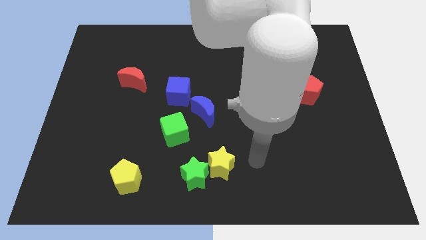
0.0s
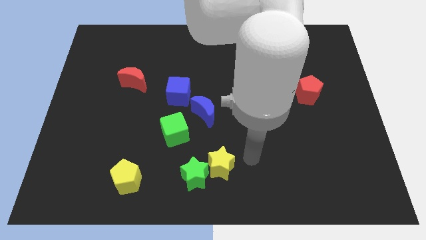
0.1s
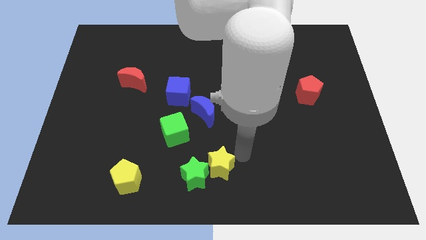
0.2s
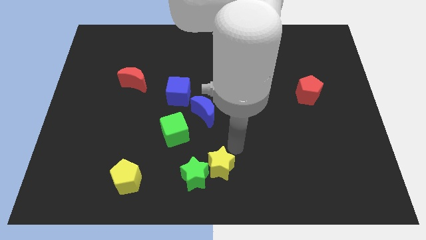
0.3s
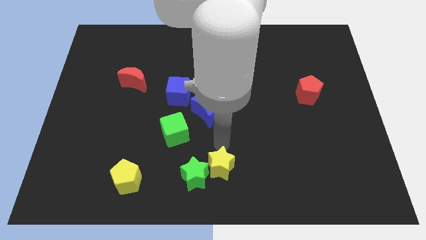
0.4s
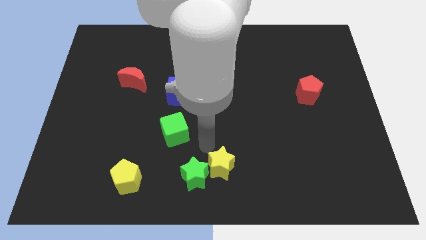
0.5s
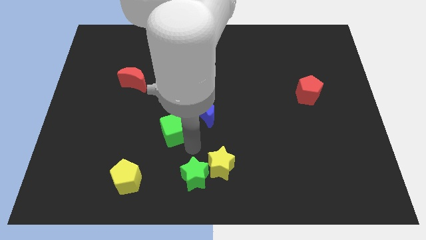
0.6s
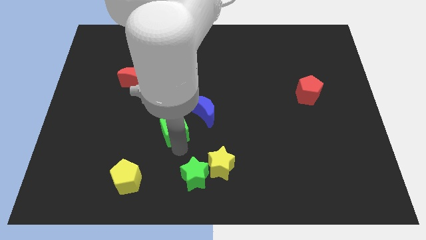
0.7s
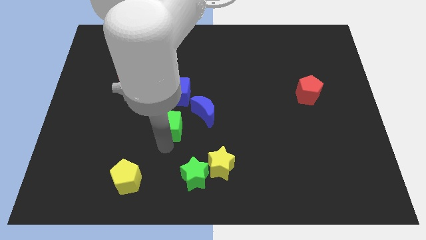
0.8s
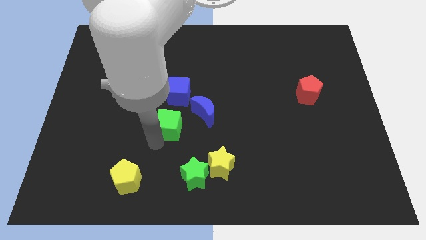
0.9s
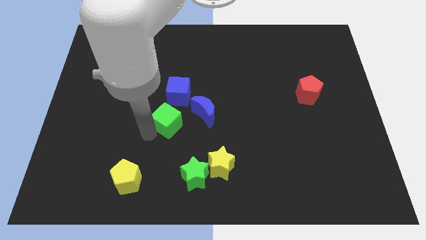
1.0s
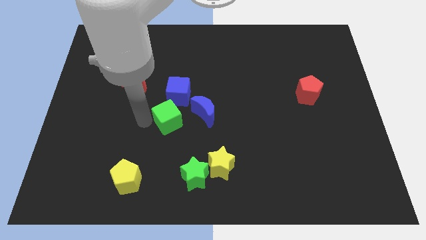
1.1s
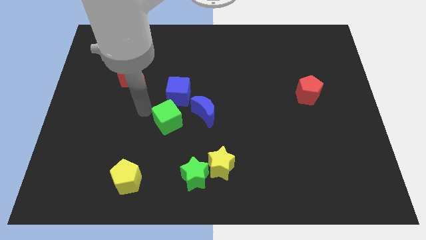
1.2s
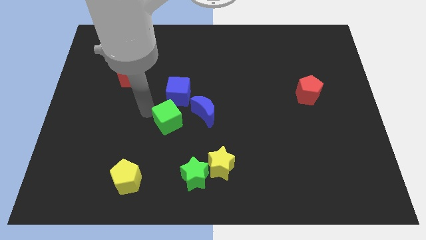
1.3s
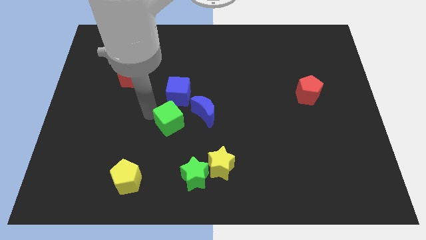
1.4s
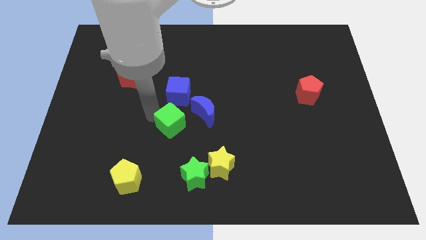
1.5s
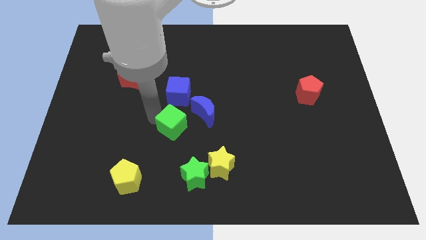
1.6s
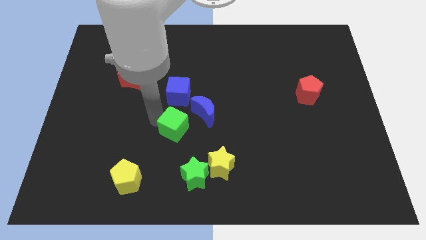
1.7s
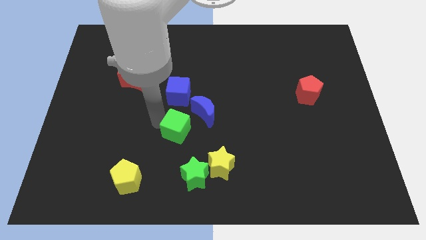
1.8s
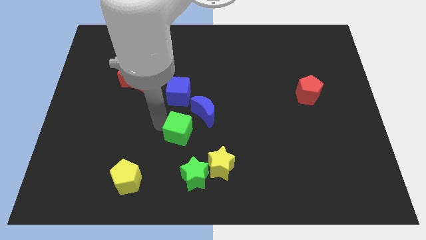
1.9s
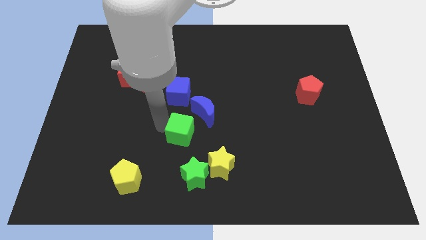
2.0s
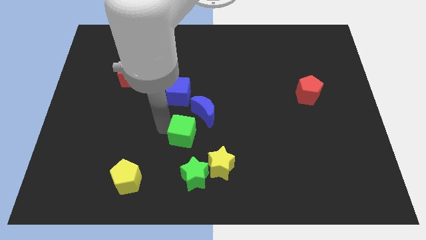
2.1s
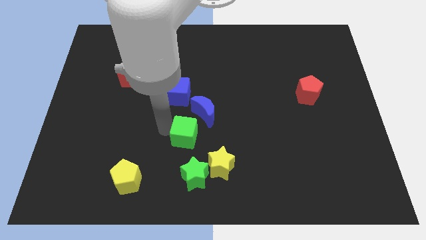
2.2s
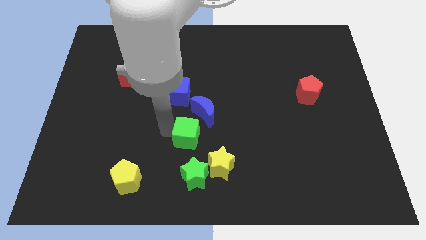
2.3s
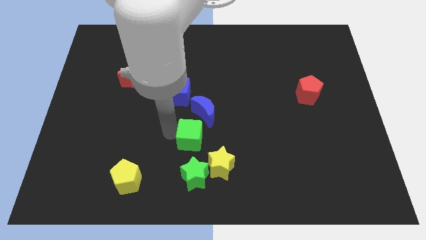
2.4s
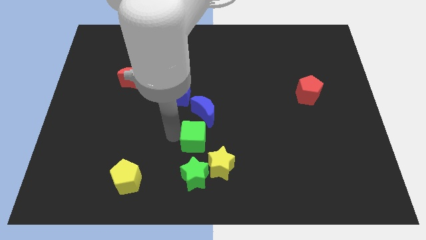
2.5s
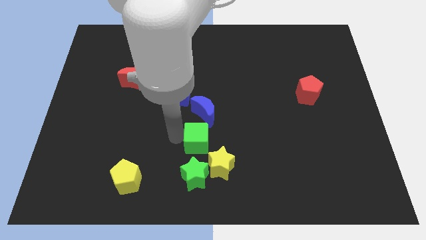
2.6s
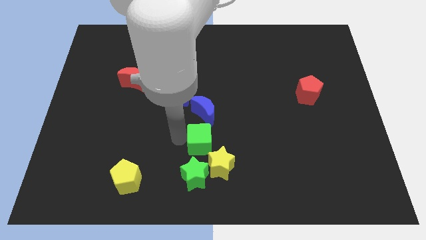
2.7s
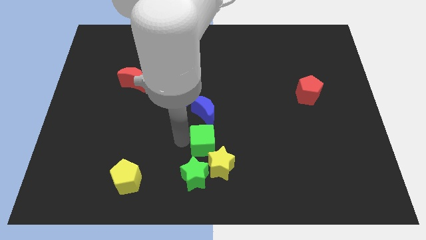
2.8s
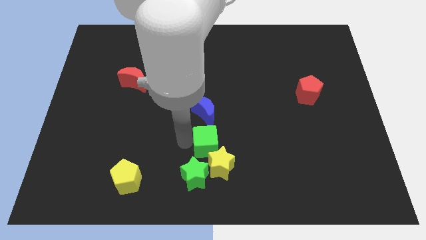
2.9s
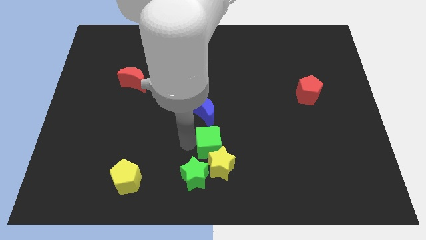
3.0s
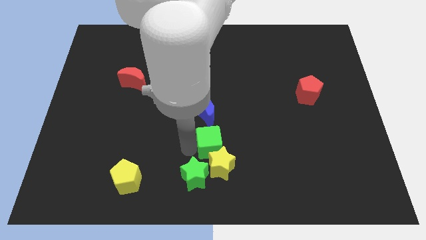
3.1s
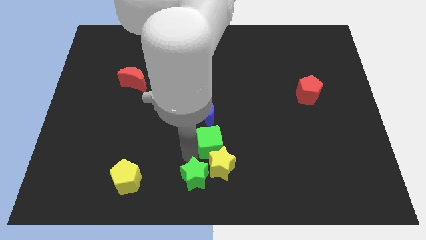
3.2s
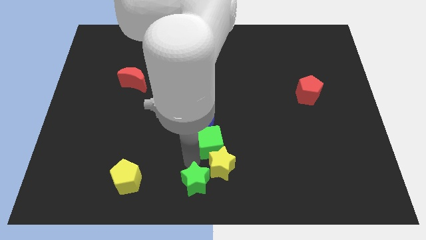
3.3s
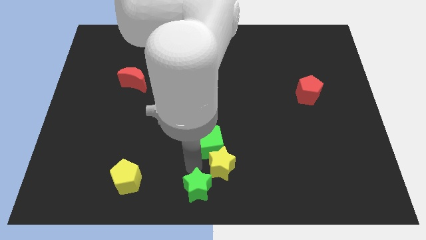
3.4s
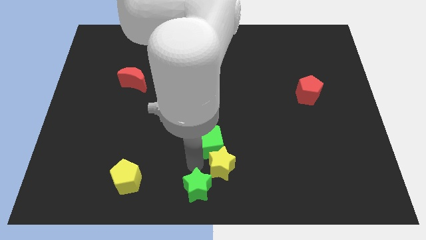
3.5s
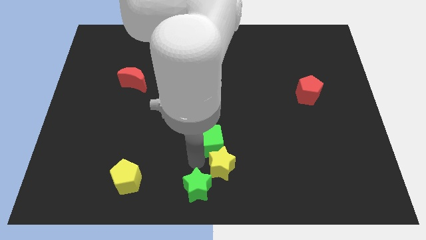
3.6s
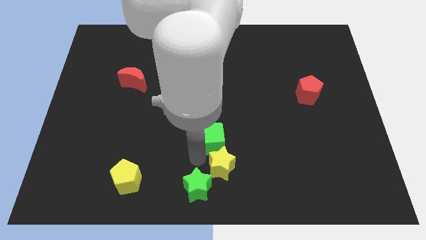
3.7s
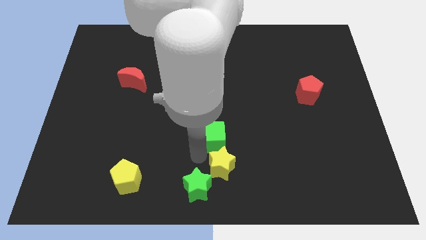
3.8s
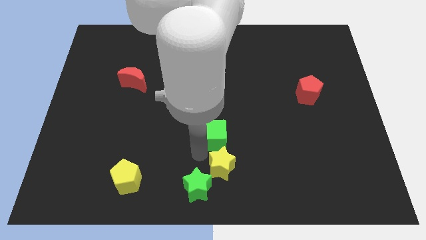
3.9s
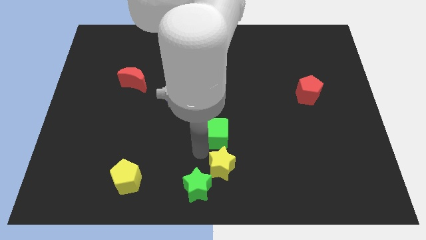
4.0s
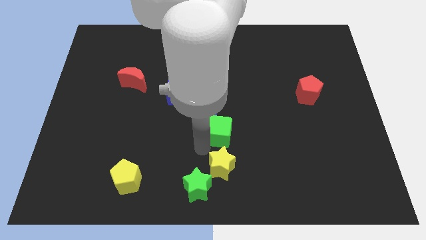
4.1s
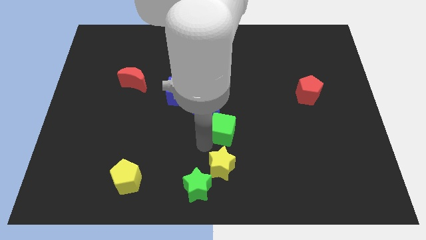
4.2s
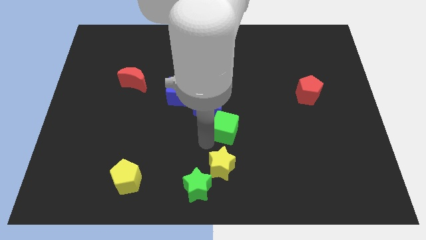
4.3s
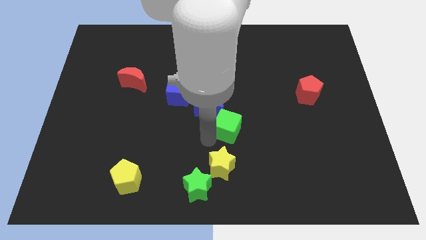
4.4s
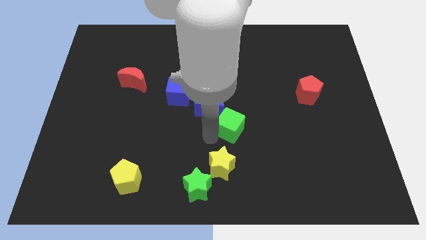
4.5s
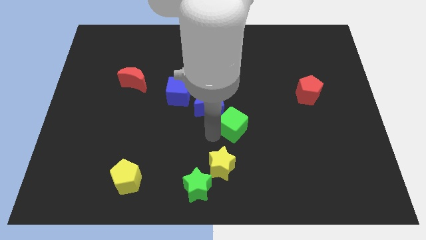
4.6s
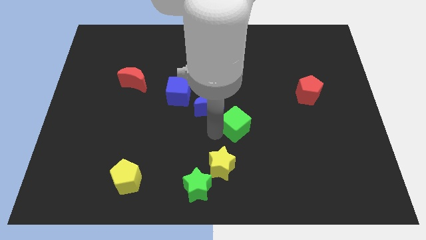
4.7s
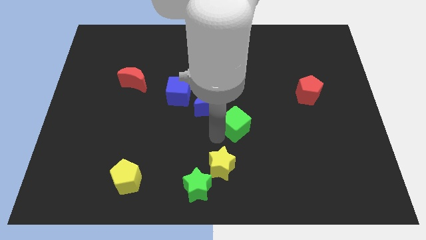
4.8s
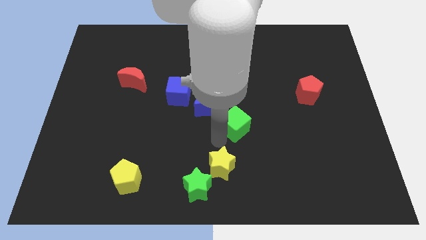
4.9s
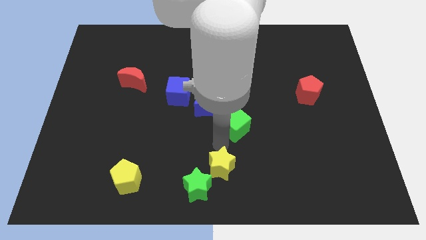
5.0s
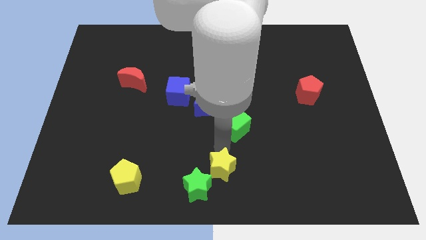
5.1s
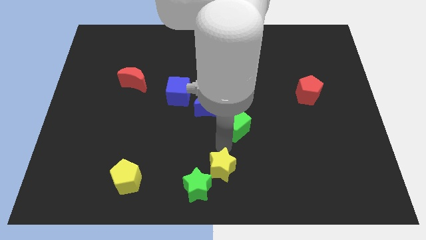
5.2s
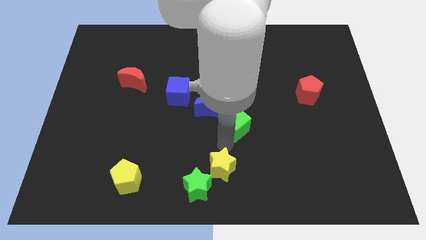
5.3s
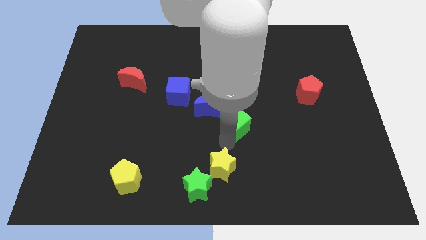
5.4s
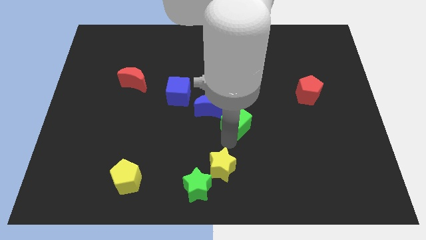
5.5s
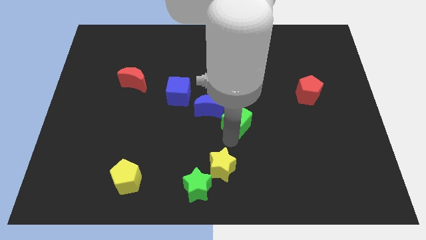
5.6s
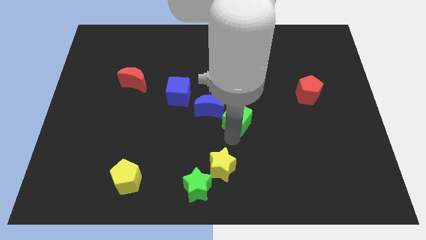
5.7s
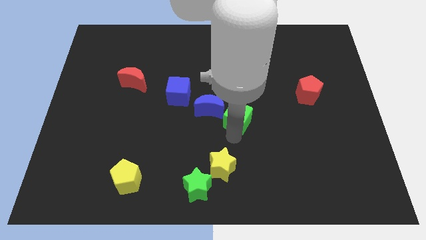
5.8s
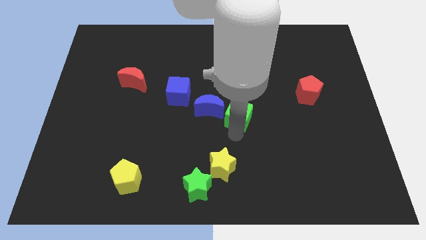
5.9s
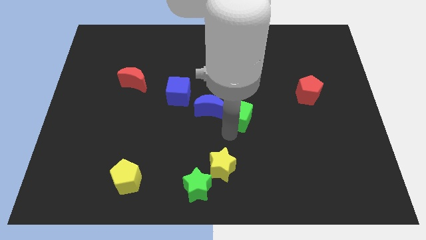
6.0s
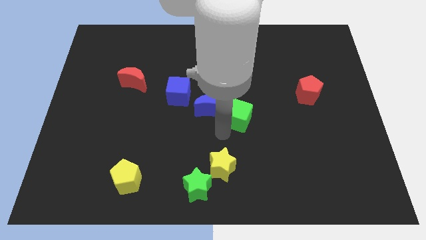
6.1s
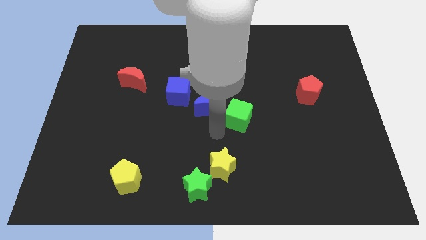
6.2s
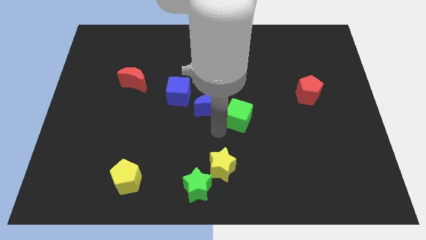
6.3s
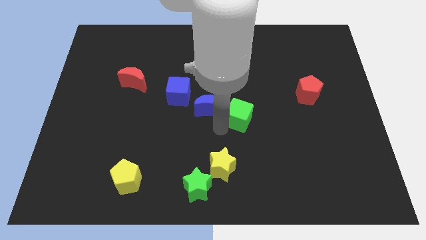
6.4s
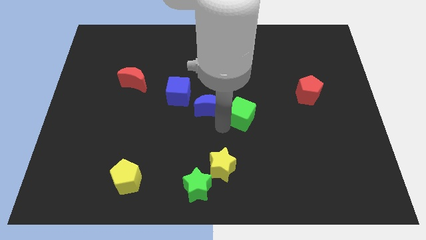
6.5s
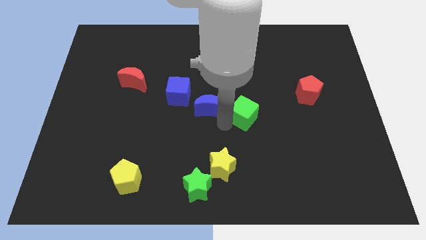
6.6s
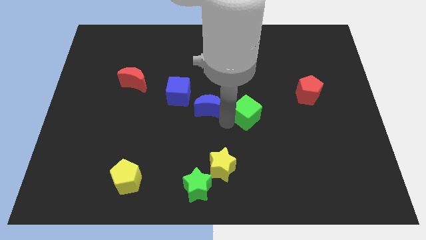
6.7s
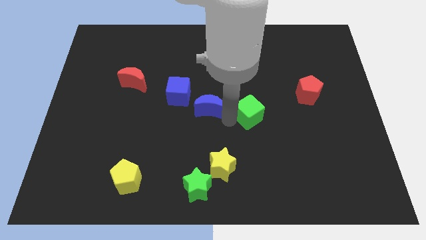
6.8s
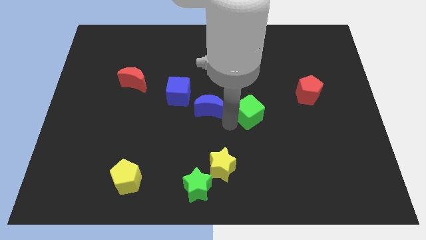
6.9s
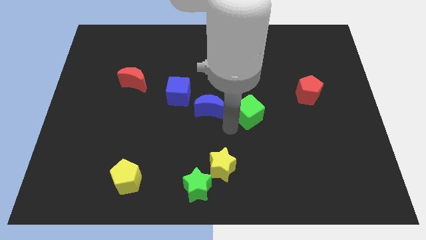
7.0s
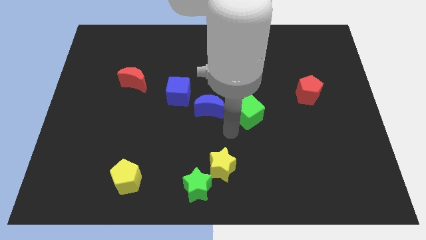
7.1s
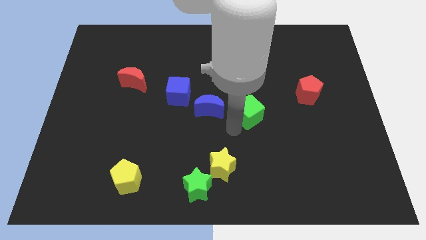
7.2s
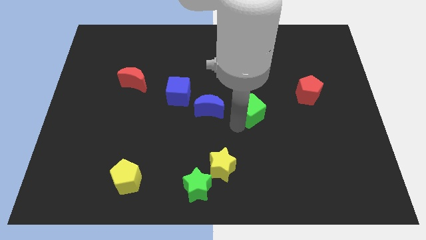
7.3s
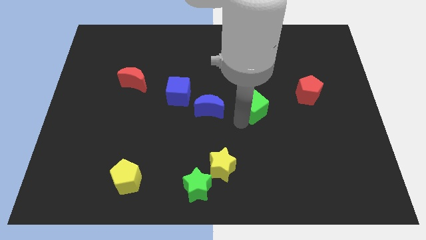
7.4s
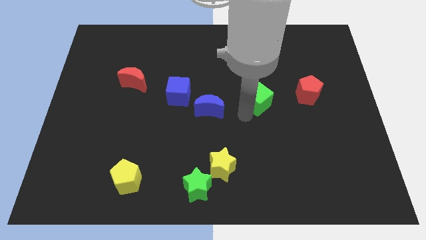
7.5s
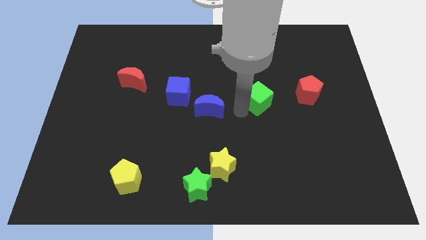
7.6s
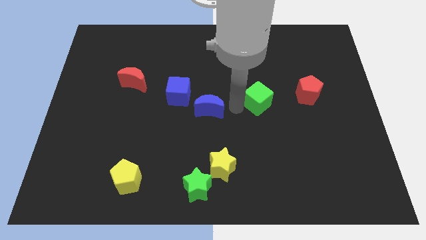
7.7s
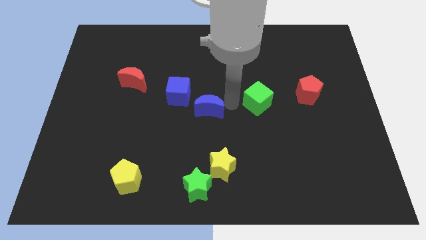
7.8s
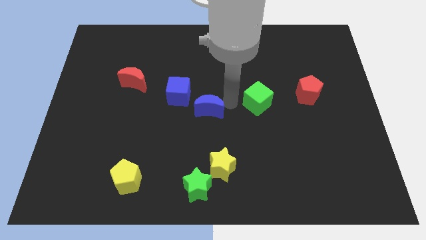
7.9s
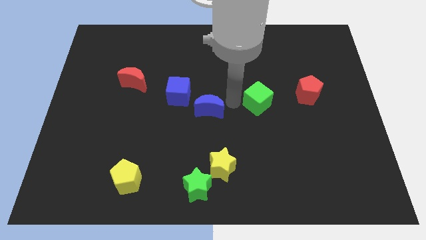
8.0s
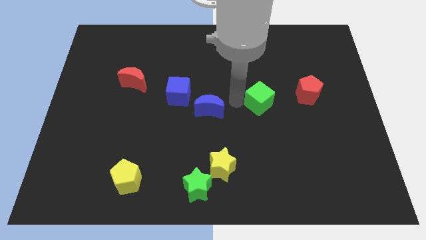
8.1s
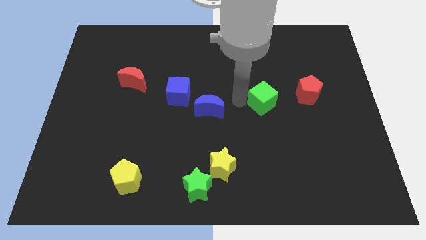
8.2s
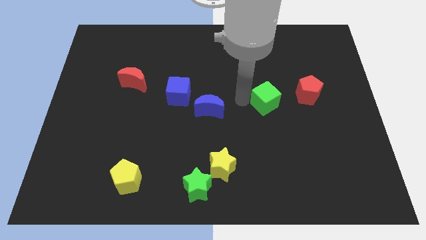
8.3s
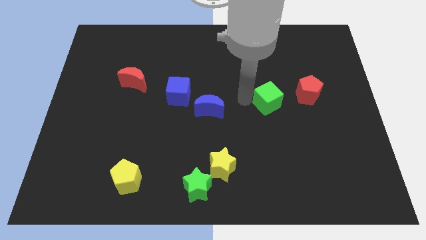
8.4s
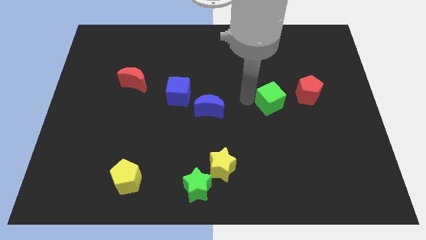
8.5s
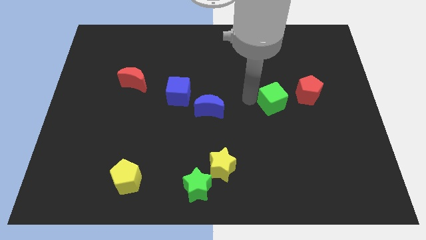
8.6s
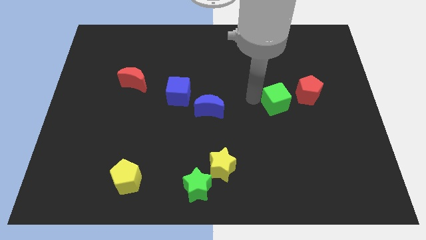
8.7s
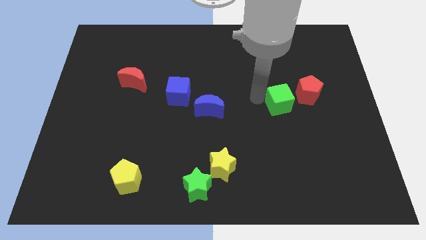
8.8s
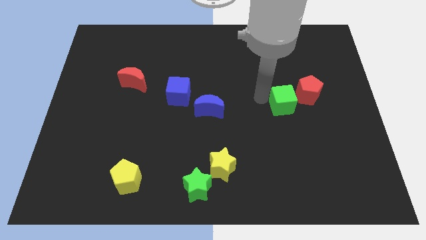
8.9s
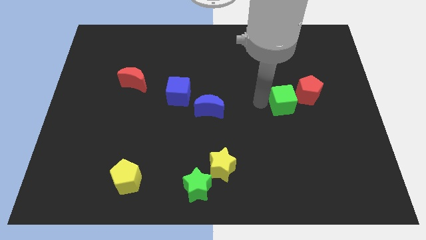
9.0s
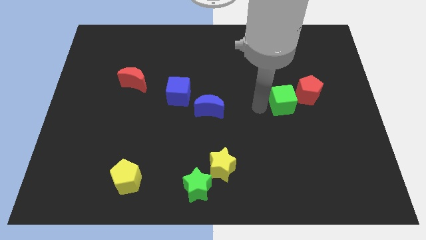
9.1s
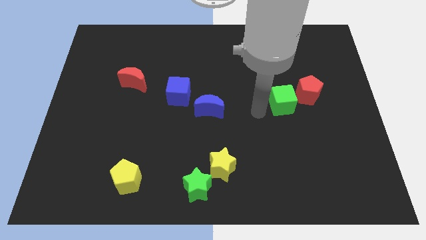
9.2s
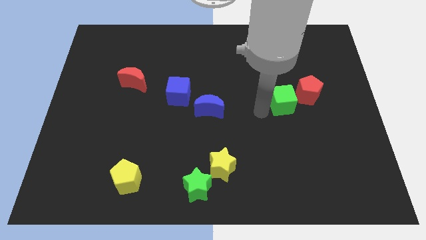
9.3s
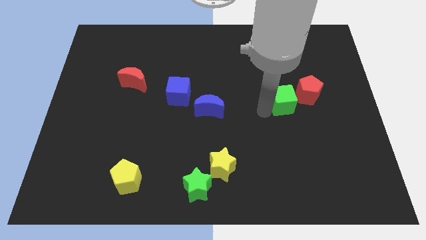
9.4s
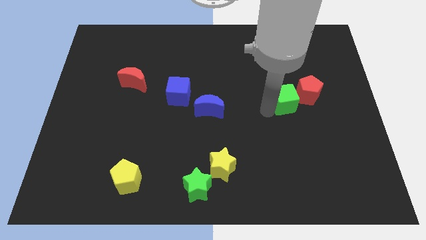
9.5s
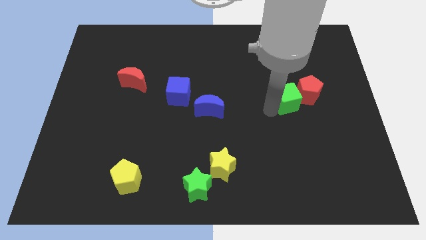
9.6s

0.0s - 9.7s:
put the green cube close to the red pentagon
